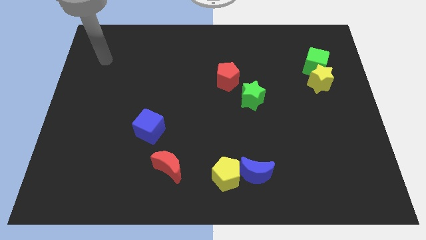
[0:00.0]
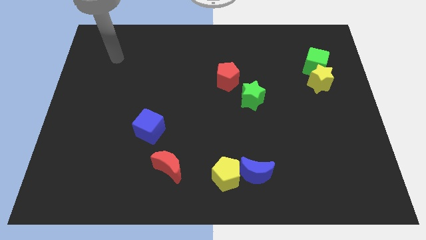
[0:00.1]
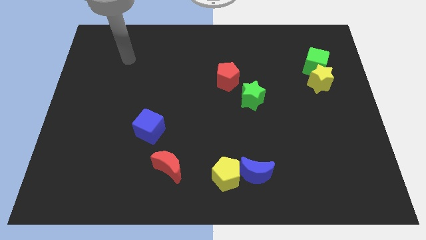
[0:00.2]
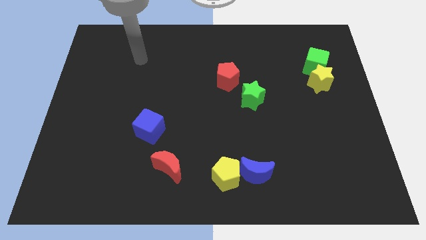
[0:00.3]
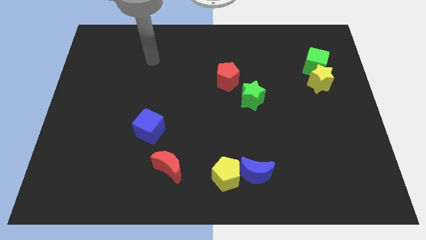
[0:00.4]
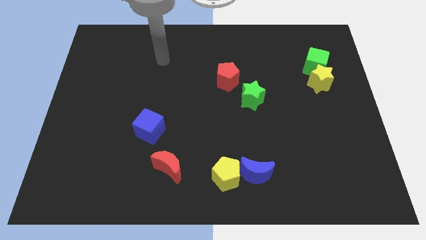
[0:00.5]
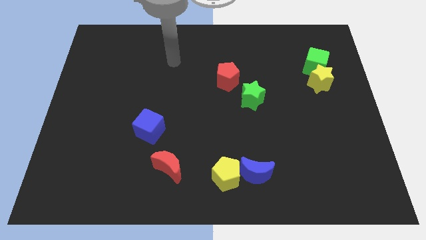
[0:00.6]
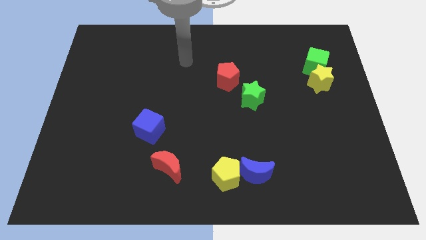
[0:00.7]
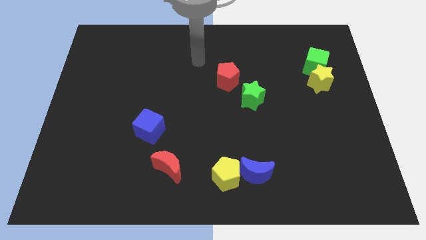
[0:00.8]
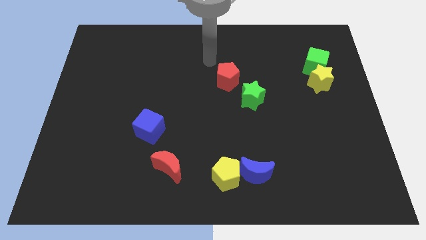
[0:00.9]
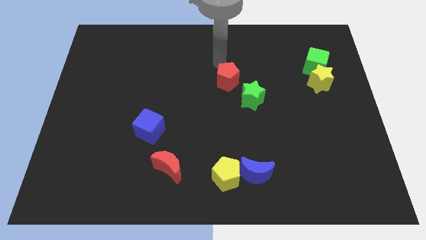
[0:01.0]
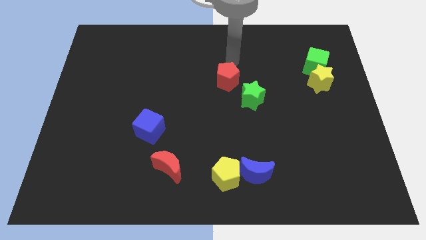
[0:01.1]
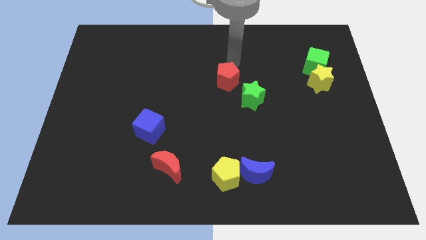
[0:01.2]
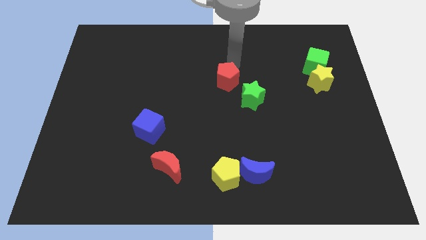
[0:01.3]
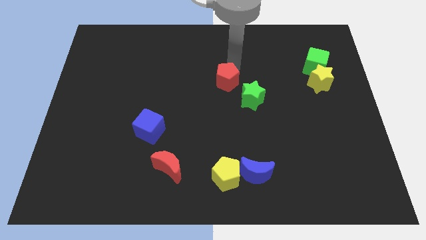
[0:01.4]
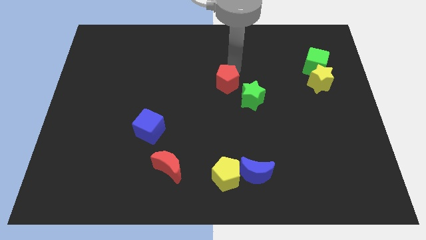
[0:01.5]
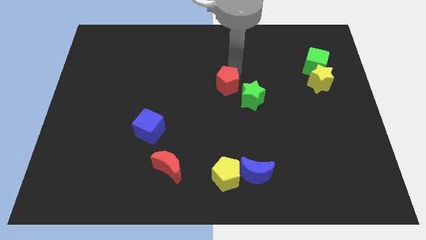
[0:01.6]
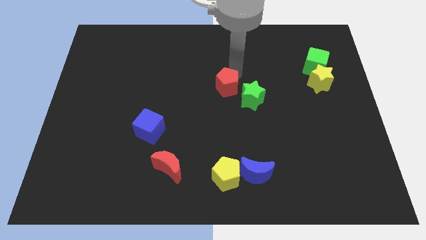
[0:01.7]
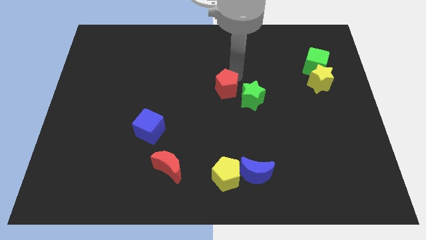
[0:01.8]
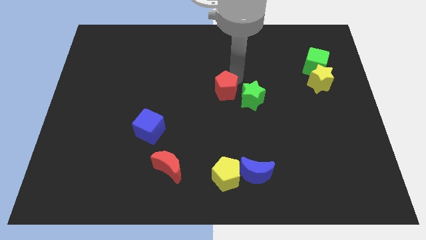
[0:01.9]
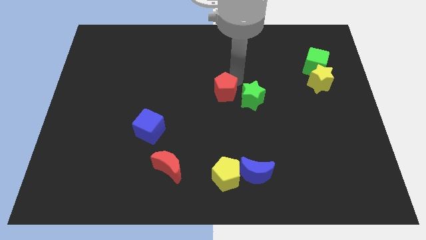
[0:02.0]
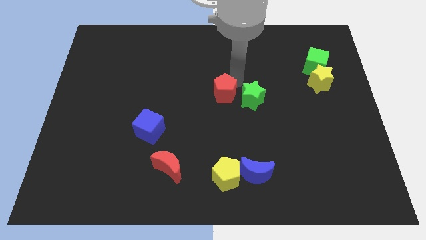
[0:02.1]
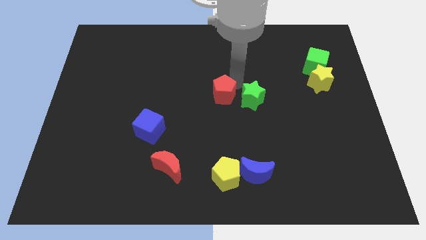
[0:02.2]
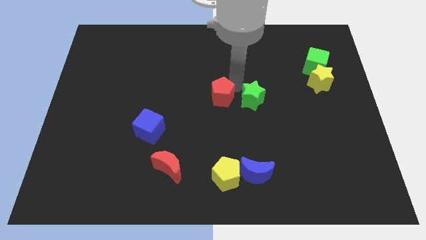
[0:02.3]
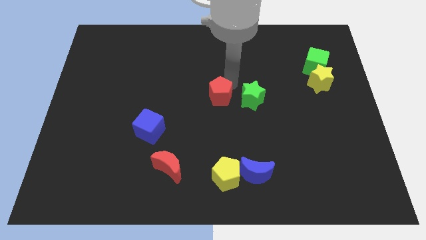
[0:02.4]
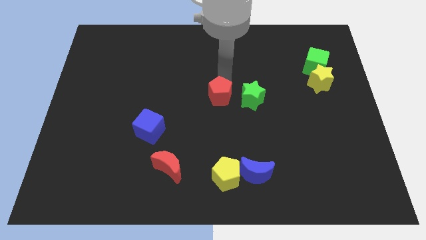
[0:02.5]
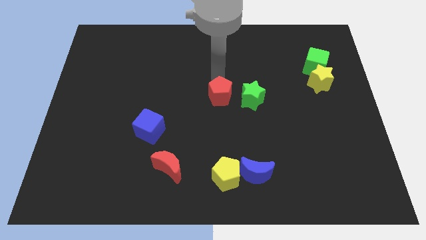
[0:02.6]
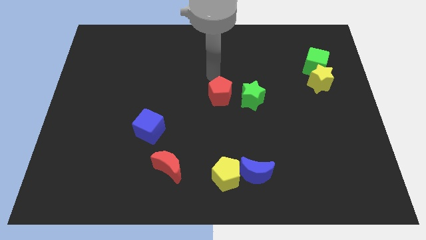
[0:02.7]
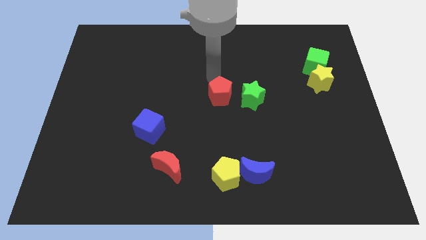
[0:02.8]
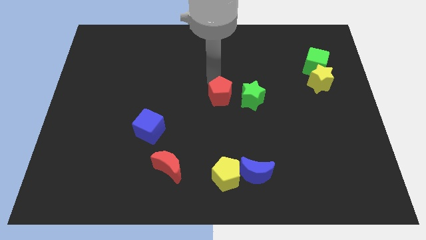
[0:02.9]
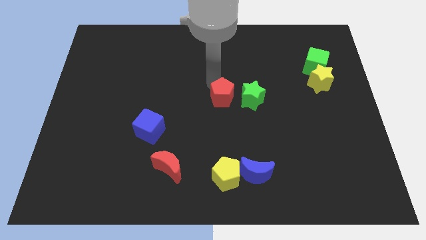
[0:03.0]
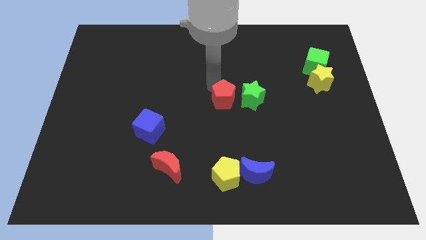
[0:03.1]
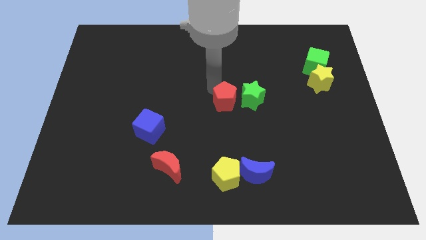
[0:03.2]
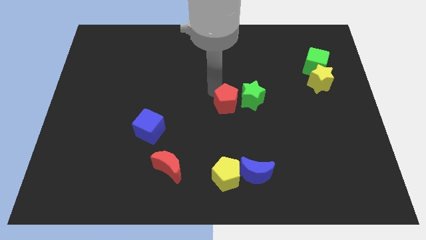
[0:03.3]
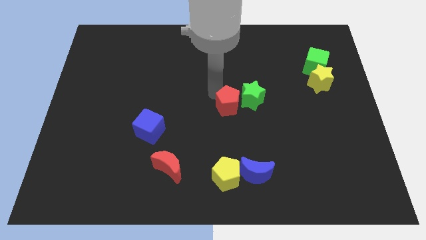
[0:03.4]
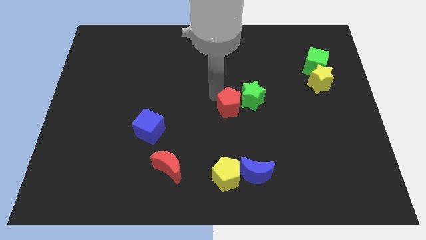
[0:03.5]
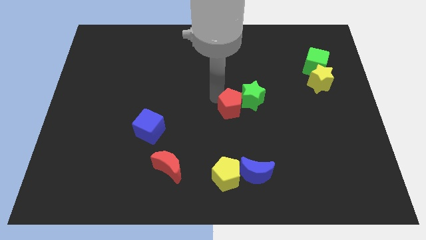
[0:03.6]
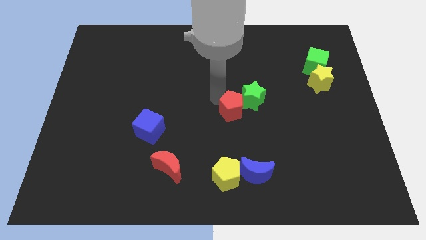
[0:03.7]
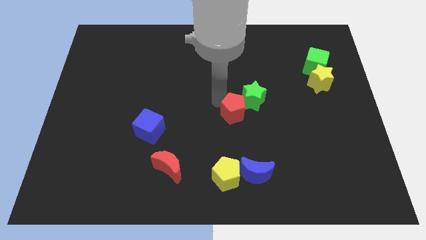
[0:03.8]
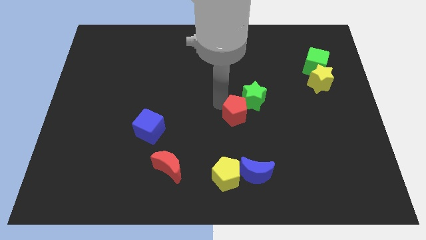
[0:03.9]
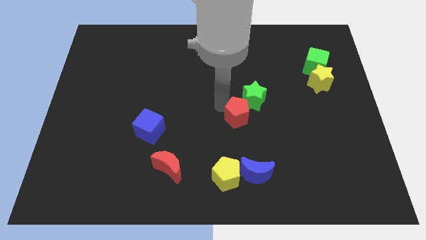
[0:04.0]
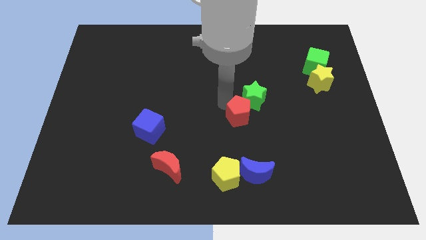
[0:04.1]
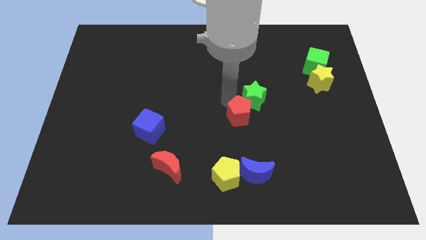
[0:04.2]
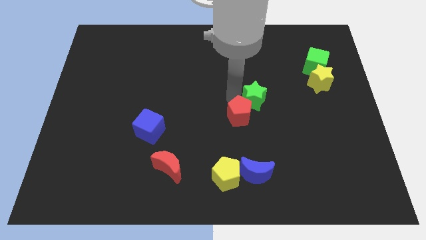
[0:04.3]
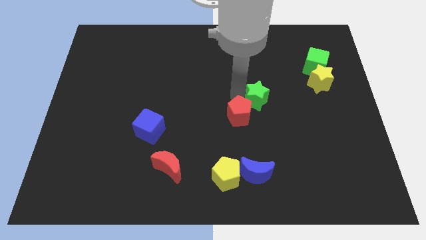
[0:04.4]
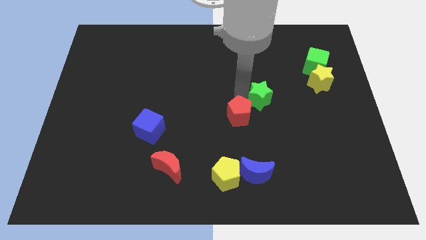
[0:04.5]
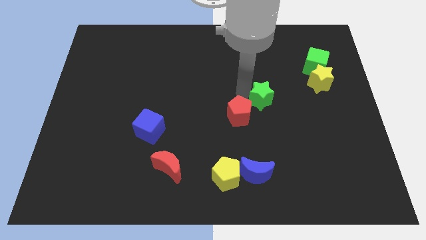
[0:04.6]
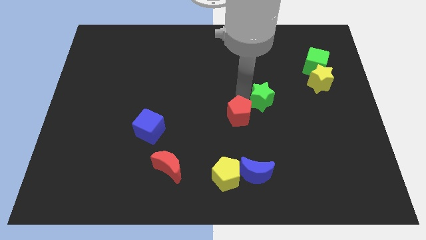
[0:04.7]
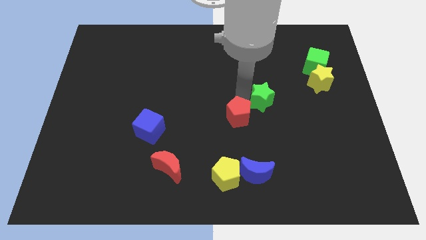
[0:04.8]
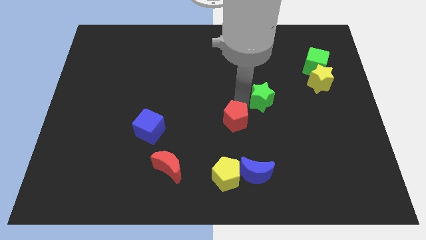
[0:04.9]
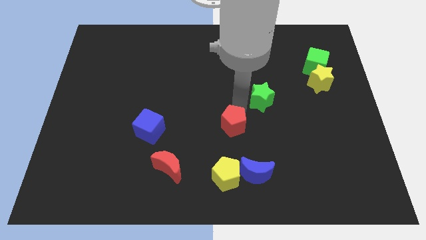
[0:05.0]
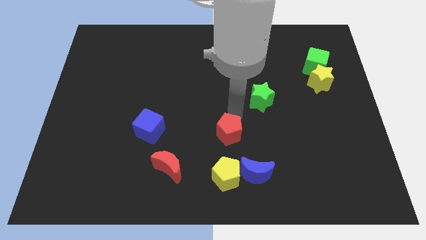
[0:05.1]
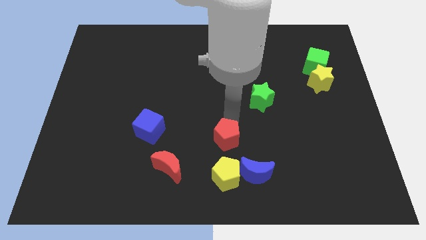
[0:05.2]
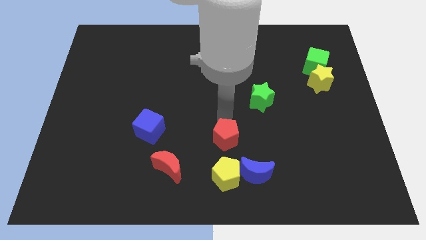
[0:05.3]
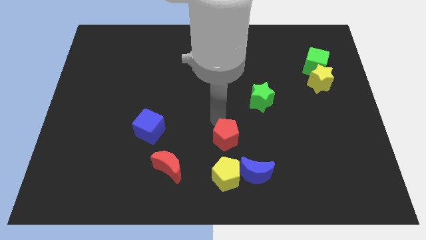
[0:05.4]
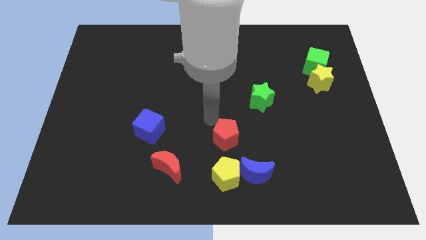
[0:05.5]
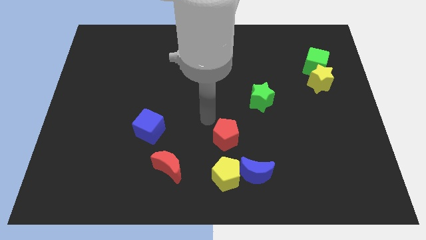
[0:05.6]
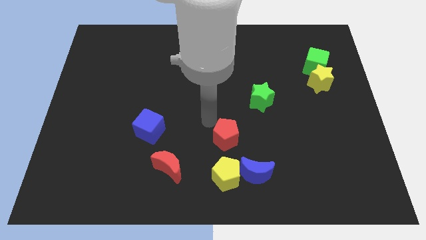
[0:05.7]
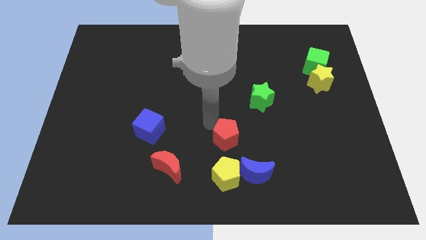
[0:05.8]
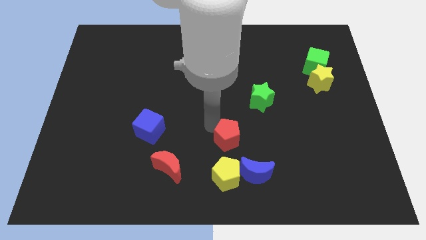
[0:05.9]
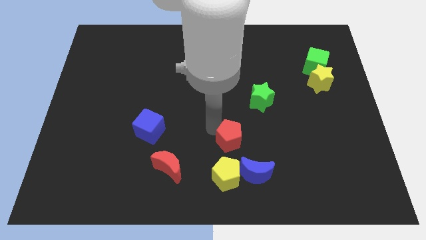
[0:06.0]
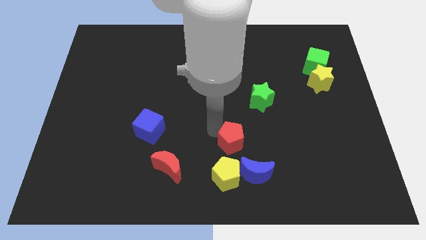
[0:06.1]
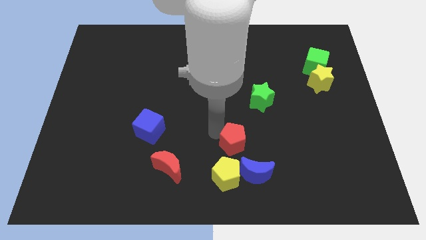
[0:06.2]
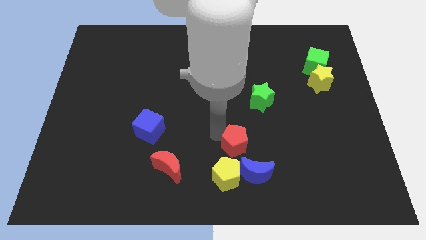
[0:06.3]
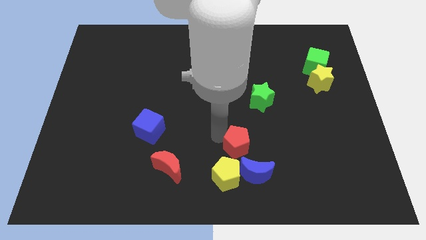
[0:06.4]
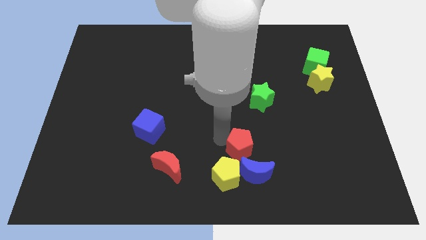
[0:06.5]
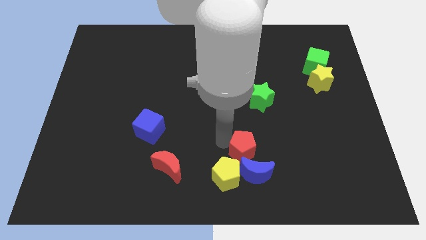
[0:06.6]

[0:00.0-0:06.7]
push the red pentagon towards the blue moon

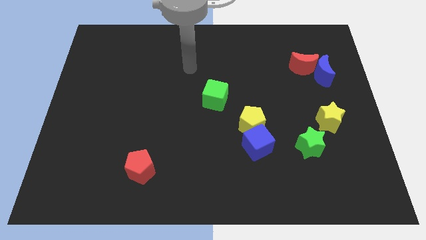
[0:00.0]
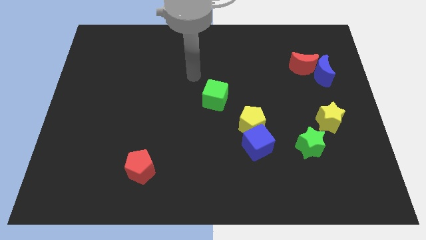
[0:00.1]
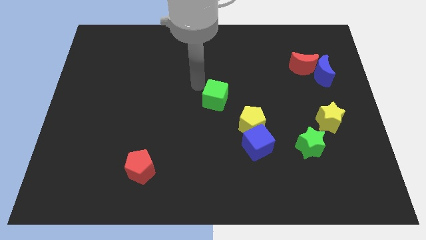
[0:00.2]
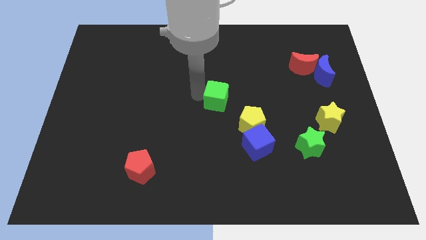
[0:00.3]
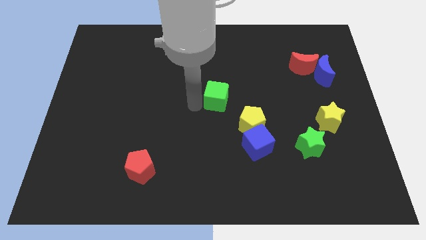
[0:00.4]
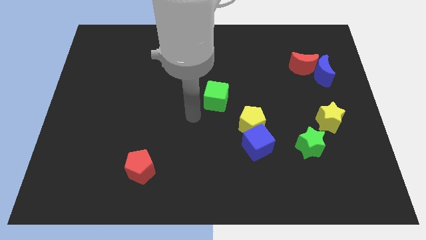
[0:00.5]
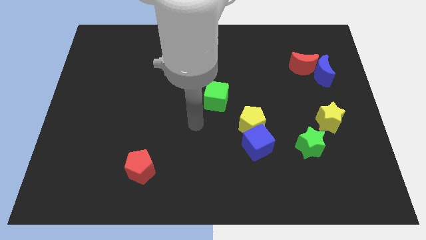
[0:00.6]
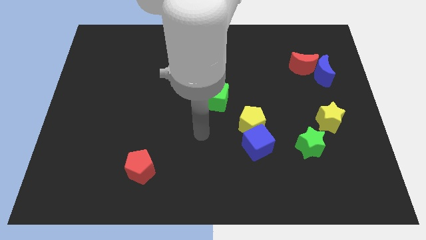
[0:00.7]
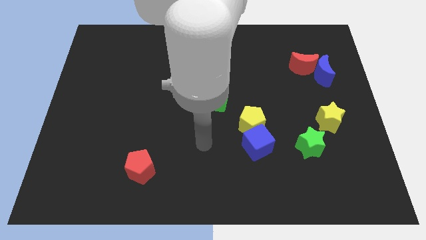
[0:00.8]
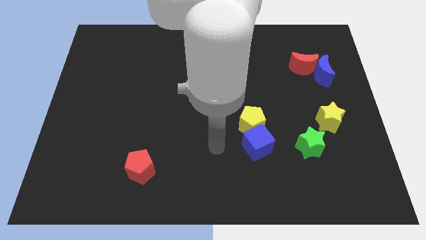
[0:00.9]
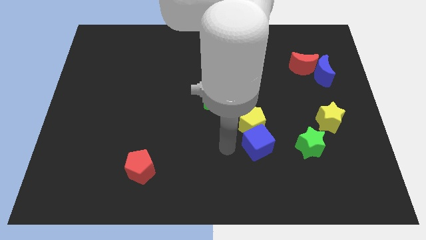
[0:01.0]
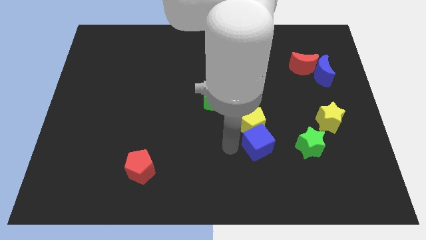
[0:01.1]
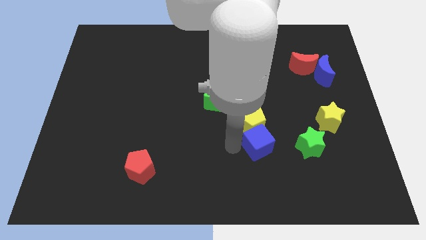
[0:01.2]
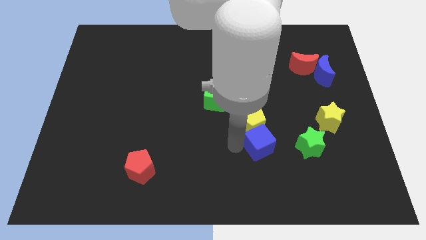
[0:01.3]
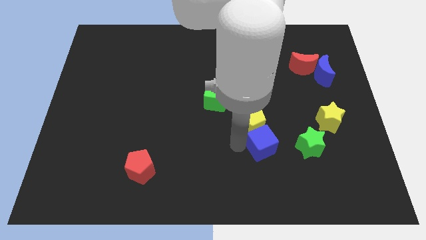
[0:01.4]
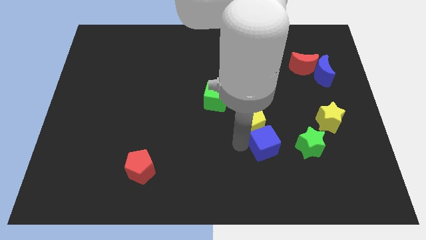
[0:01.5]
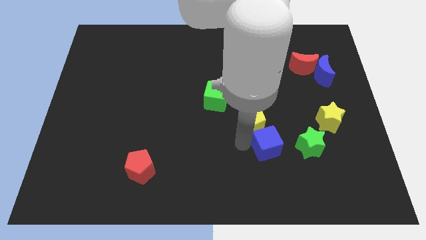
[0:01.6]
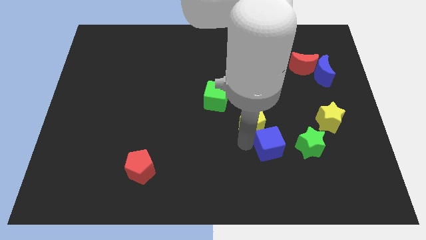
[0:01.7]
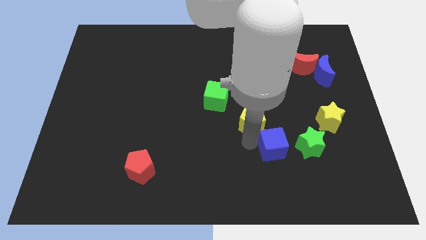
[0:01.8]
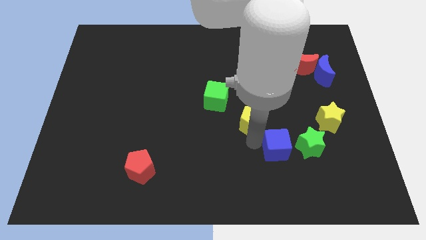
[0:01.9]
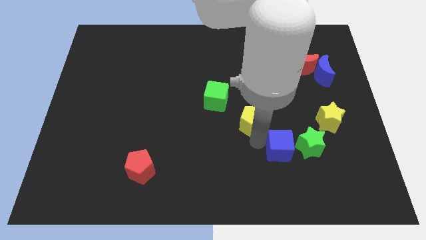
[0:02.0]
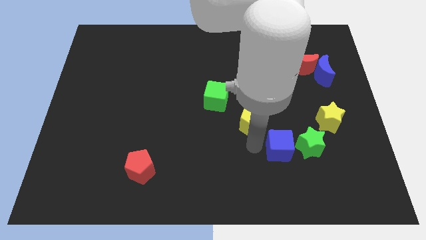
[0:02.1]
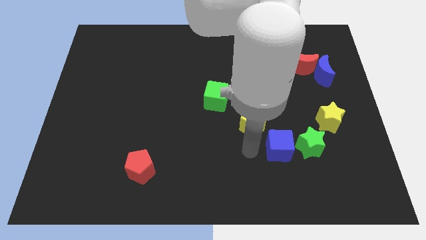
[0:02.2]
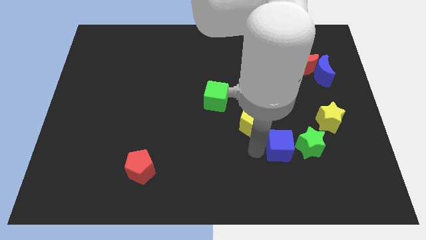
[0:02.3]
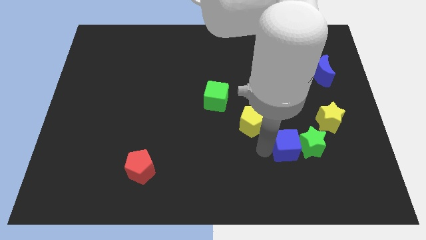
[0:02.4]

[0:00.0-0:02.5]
put the blue cube close to the green star
